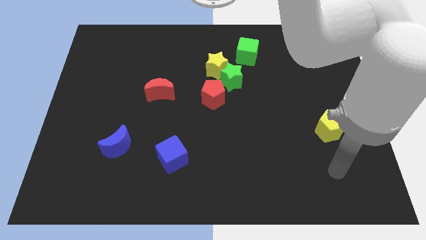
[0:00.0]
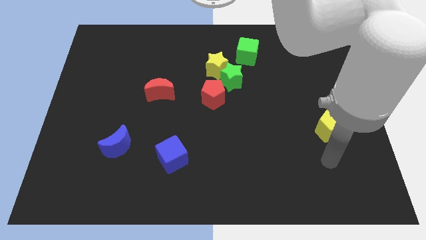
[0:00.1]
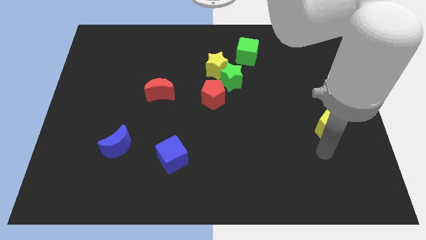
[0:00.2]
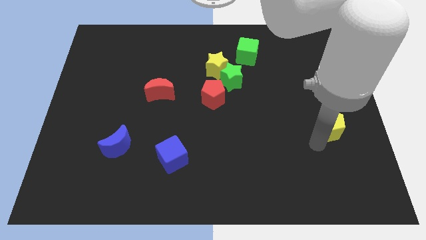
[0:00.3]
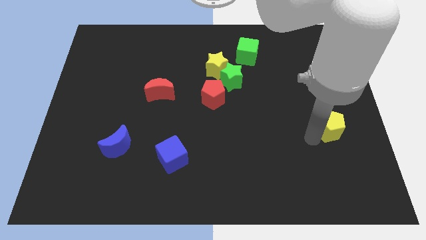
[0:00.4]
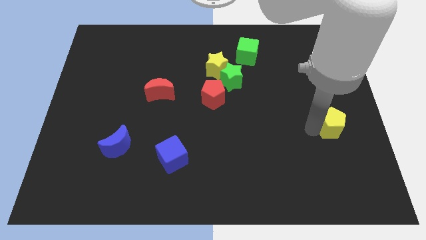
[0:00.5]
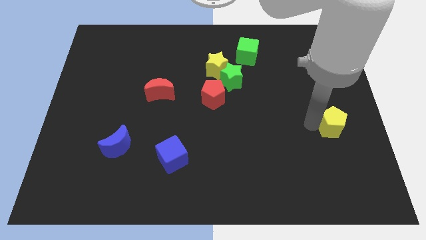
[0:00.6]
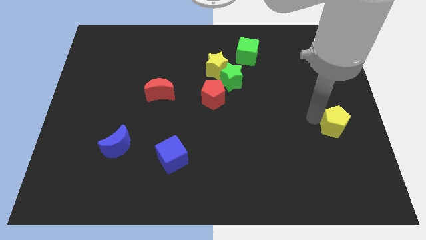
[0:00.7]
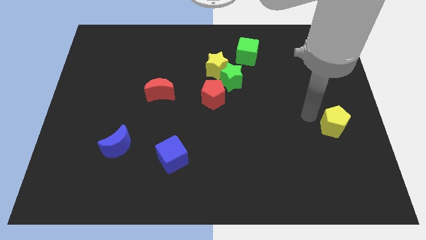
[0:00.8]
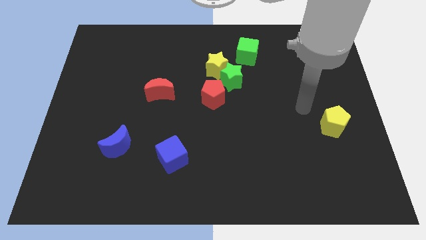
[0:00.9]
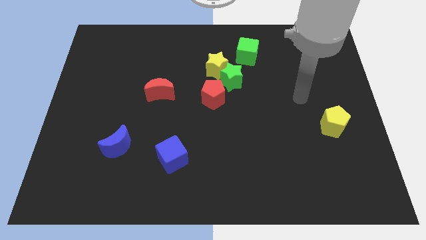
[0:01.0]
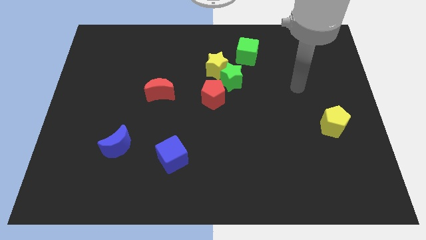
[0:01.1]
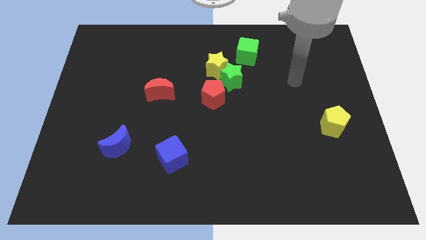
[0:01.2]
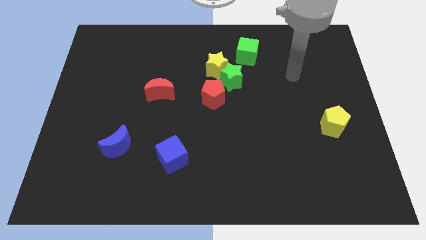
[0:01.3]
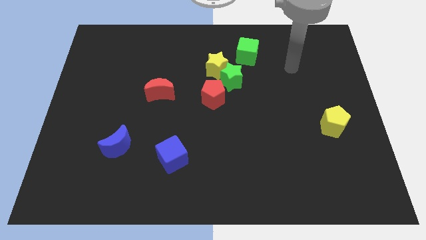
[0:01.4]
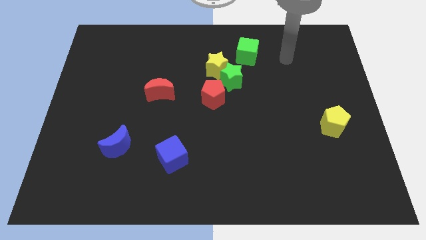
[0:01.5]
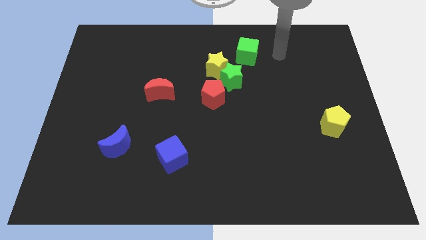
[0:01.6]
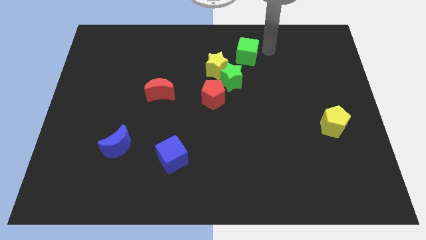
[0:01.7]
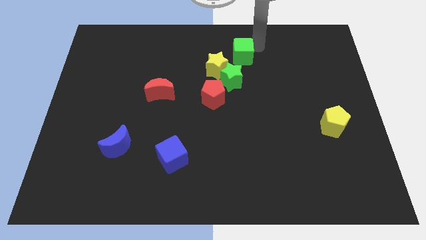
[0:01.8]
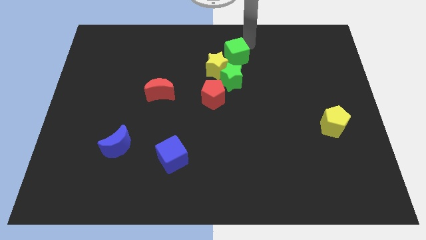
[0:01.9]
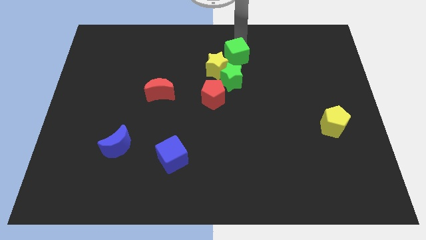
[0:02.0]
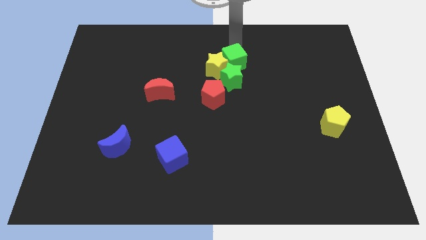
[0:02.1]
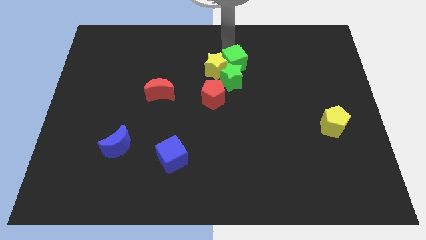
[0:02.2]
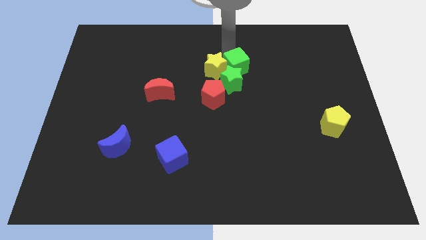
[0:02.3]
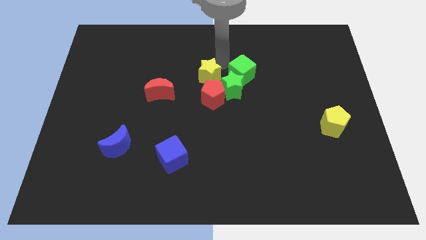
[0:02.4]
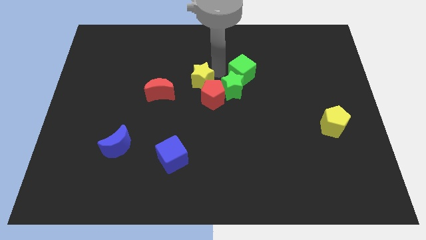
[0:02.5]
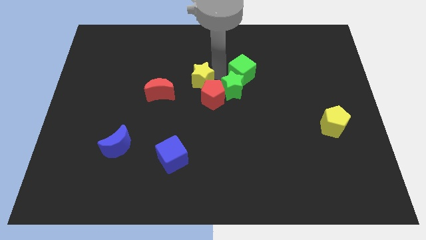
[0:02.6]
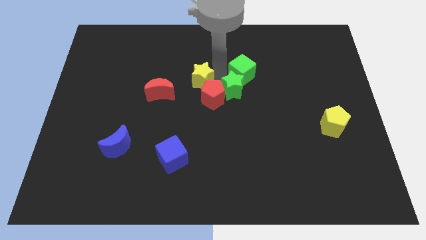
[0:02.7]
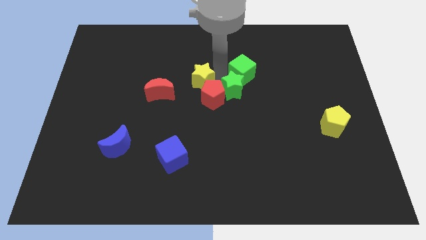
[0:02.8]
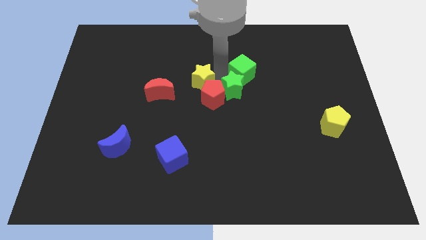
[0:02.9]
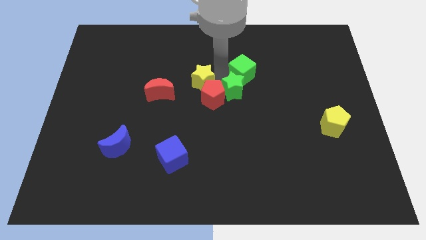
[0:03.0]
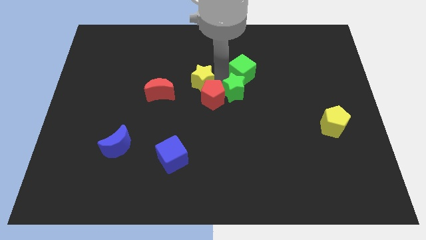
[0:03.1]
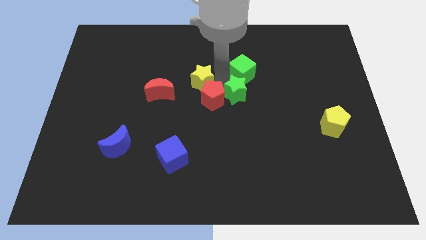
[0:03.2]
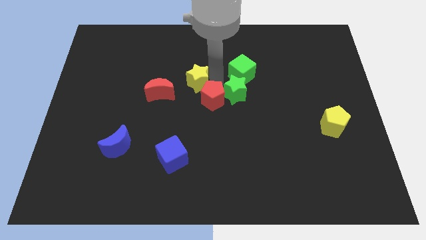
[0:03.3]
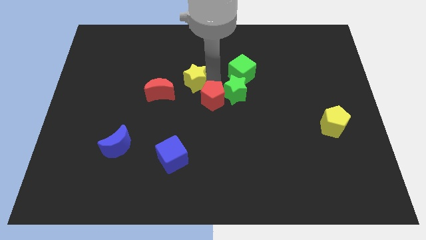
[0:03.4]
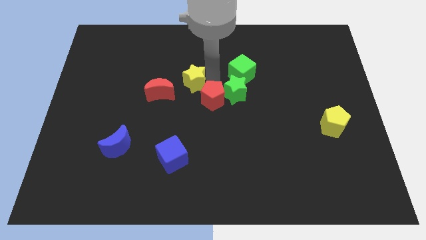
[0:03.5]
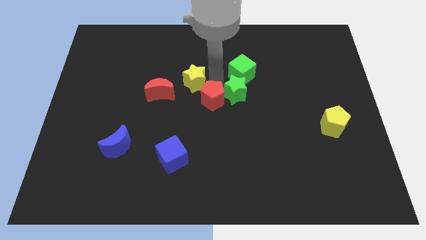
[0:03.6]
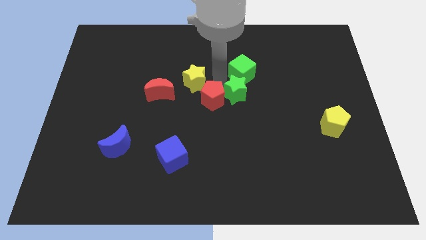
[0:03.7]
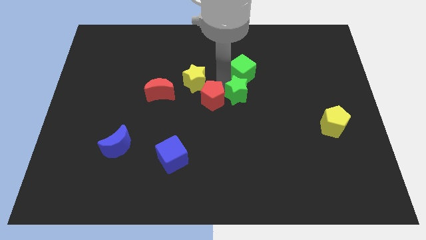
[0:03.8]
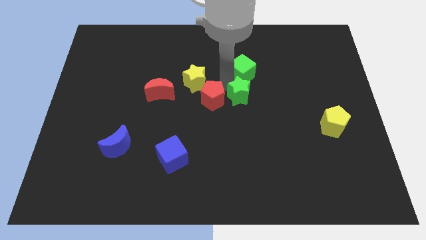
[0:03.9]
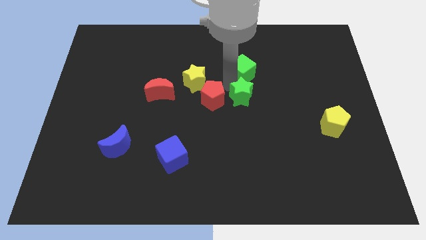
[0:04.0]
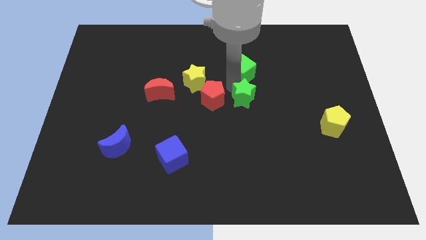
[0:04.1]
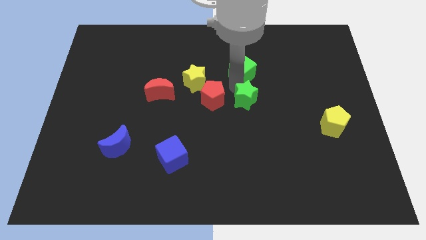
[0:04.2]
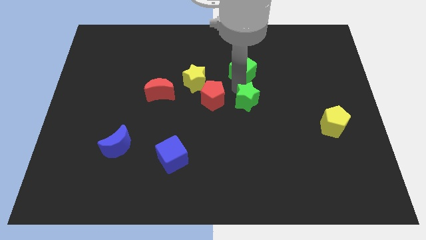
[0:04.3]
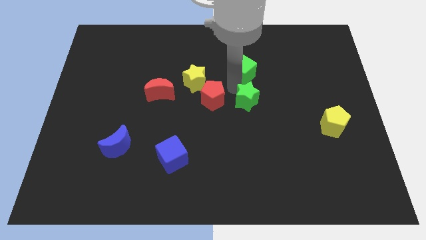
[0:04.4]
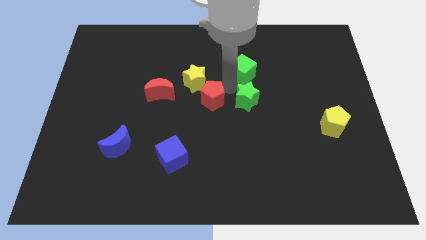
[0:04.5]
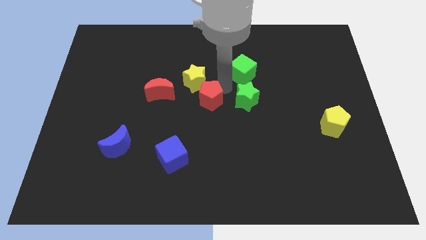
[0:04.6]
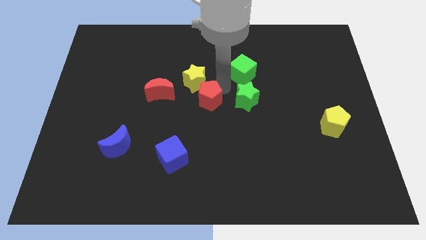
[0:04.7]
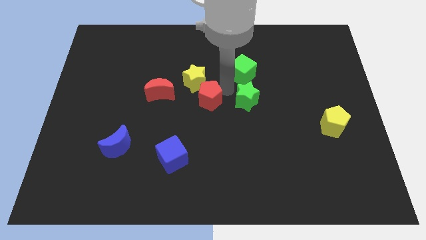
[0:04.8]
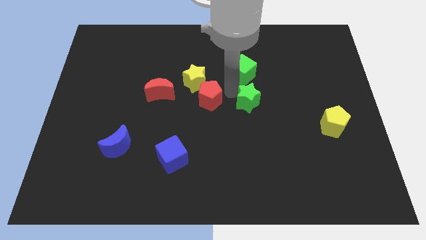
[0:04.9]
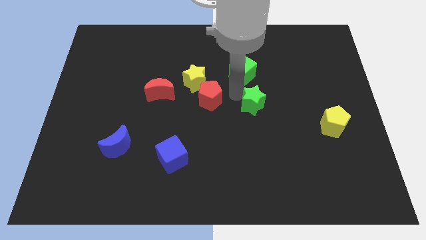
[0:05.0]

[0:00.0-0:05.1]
separate the green star from the yellow star, red pentagon, and green cube

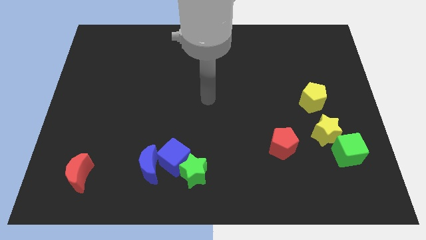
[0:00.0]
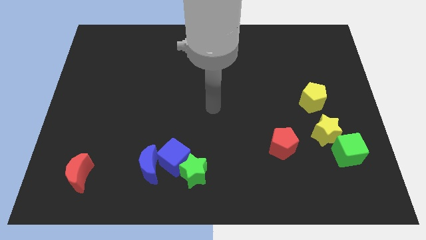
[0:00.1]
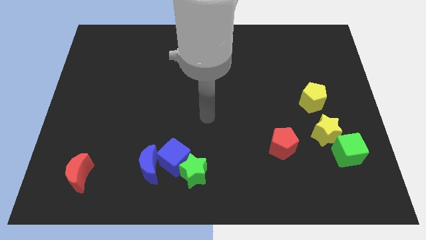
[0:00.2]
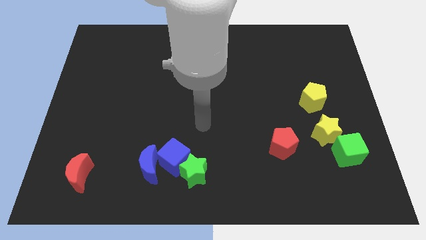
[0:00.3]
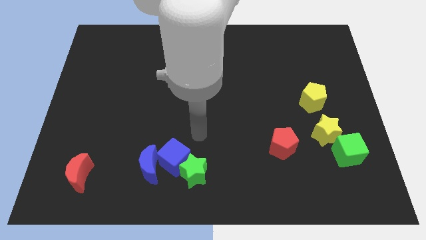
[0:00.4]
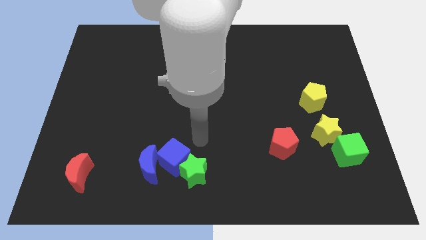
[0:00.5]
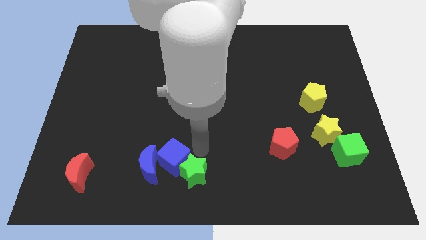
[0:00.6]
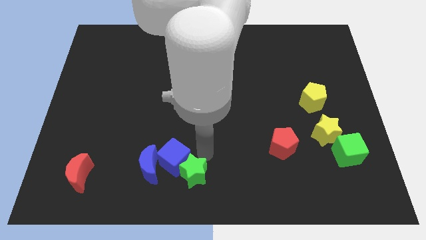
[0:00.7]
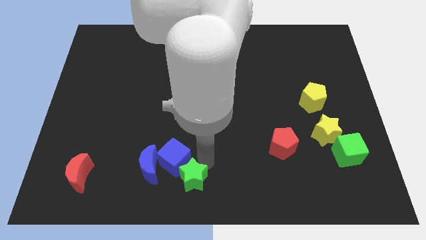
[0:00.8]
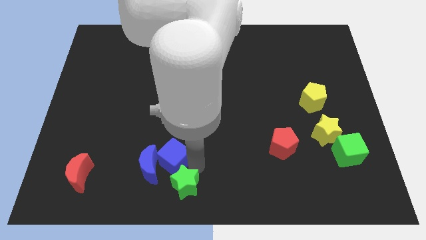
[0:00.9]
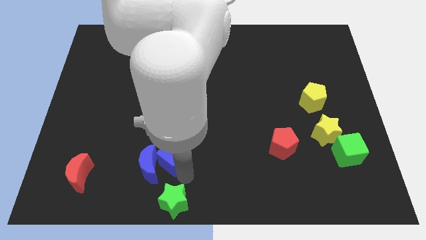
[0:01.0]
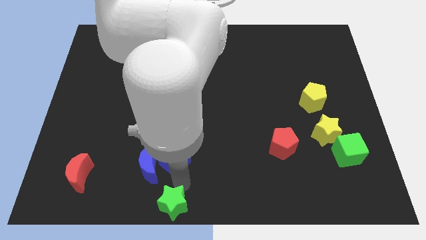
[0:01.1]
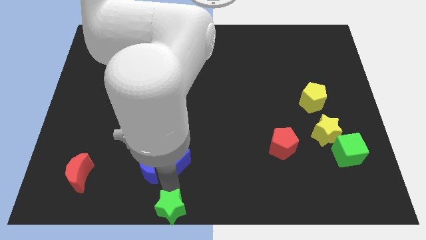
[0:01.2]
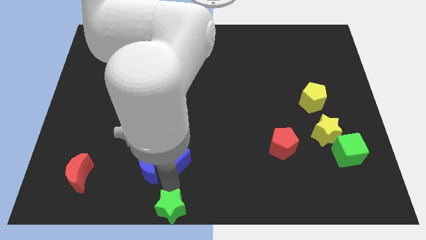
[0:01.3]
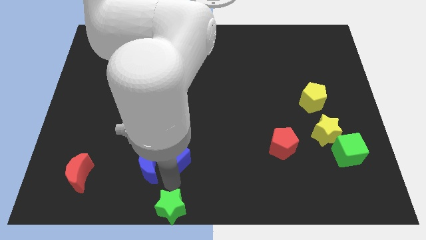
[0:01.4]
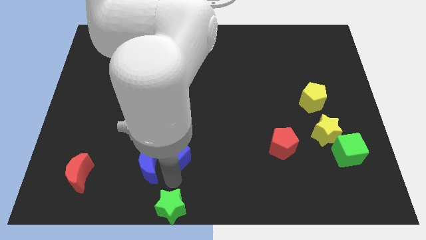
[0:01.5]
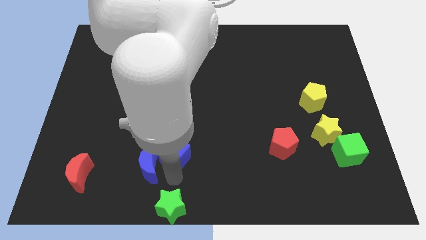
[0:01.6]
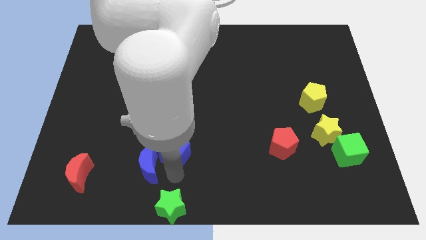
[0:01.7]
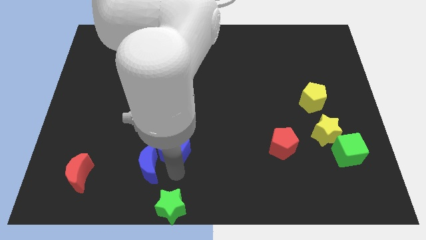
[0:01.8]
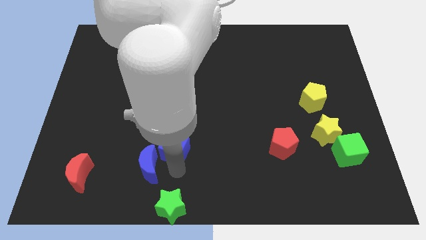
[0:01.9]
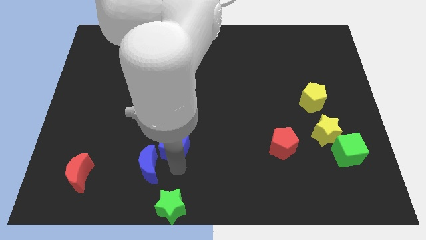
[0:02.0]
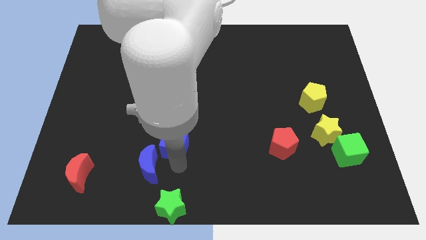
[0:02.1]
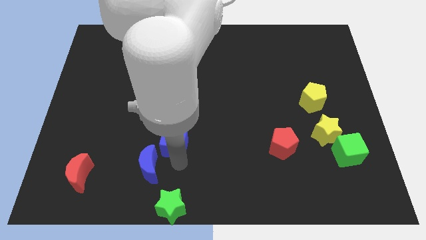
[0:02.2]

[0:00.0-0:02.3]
pull the blue cube apart from the green star and blue moon

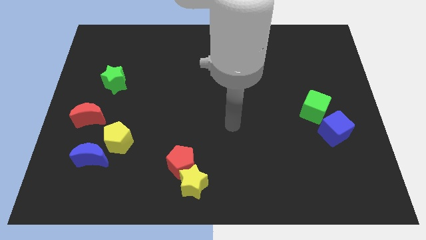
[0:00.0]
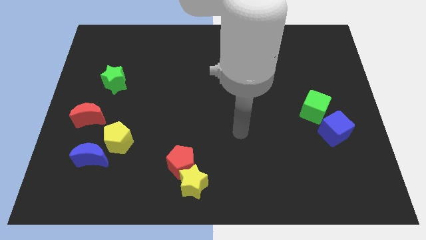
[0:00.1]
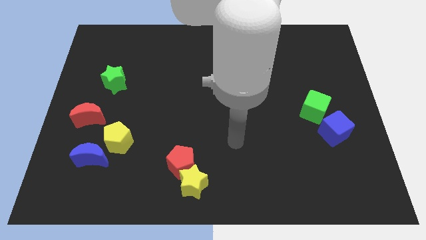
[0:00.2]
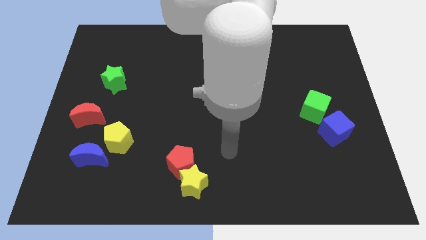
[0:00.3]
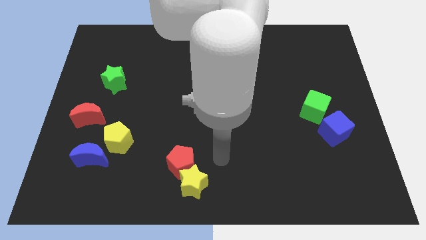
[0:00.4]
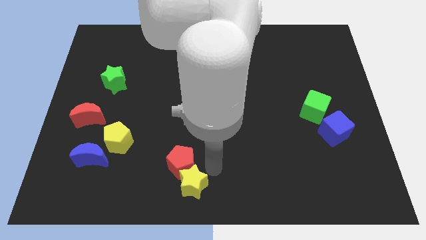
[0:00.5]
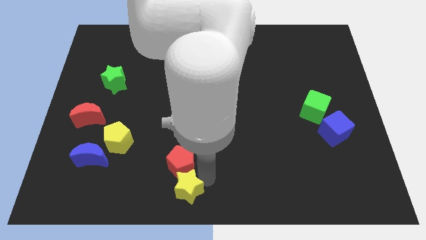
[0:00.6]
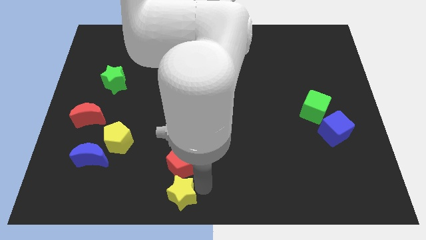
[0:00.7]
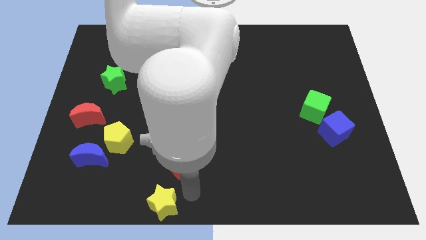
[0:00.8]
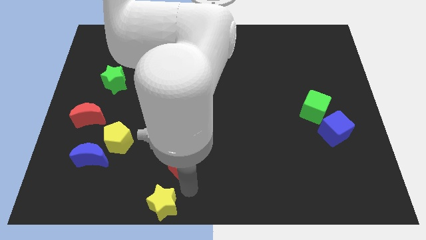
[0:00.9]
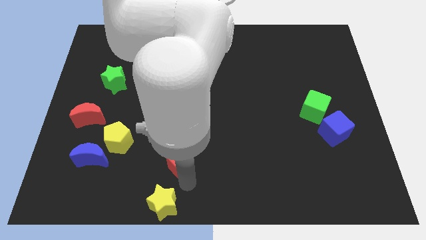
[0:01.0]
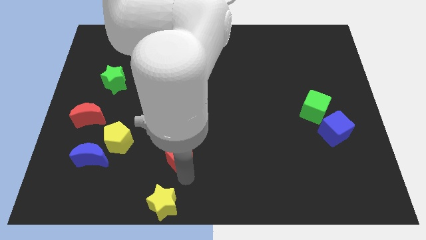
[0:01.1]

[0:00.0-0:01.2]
separate the red pentagon from the yellow star

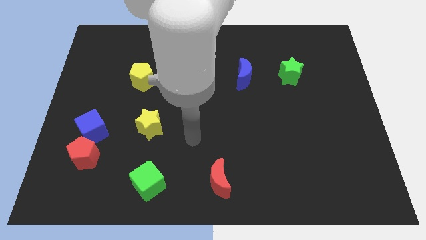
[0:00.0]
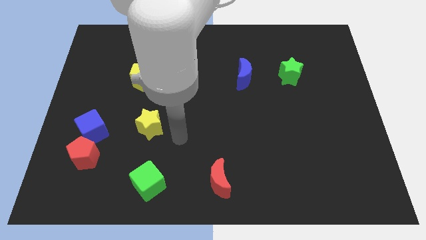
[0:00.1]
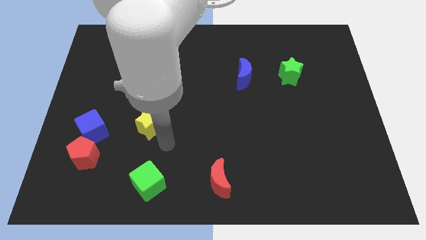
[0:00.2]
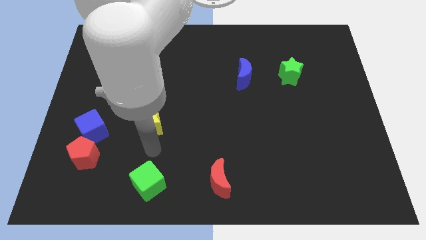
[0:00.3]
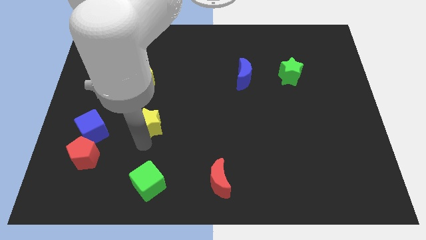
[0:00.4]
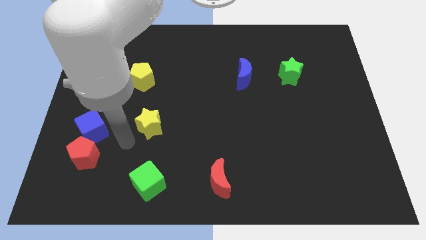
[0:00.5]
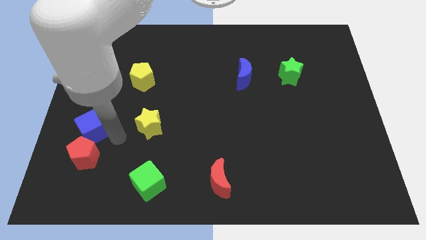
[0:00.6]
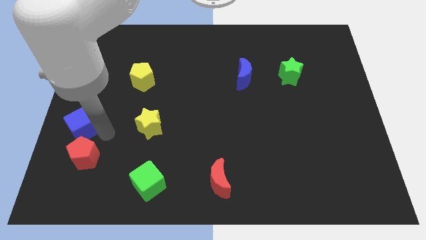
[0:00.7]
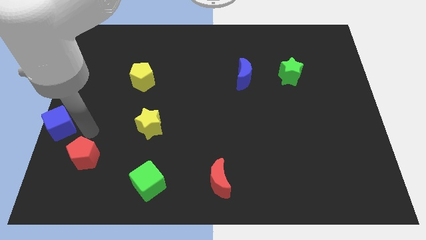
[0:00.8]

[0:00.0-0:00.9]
pull the red pentagon apart from the blue cube
